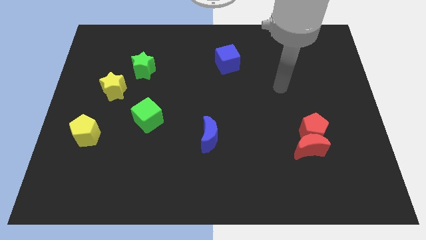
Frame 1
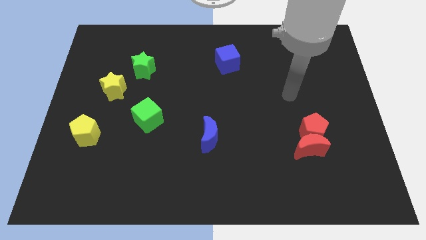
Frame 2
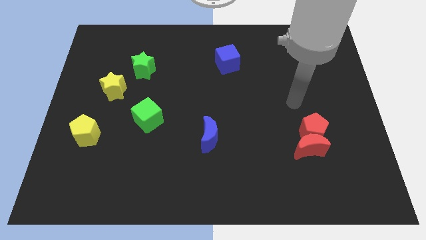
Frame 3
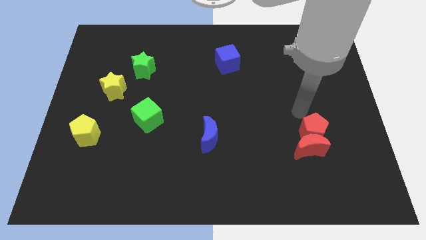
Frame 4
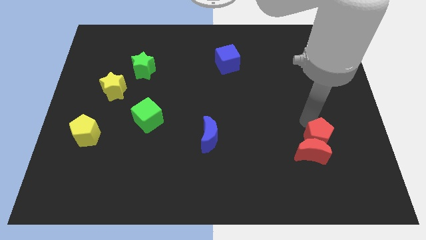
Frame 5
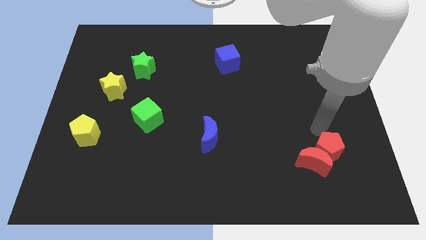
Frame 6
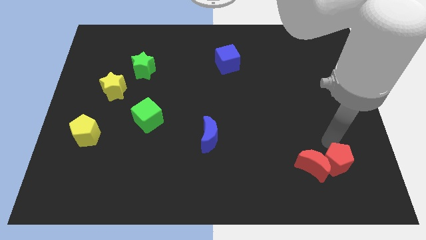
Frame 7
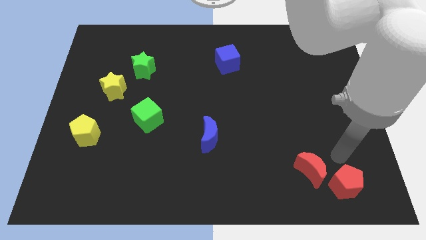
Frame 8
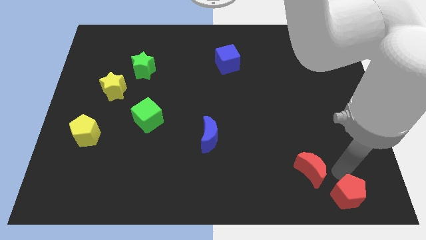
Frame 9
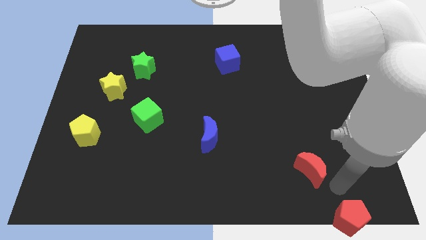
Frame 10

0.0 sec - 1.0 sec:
pull the red moon apart from the red pentagon

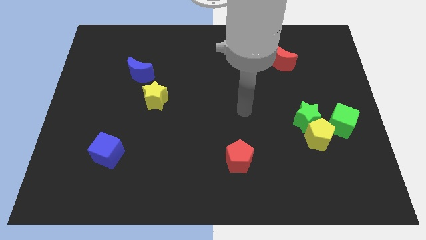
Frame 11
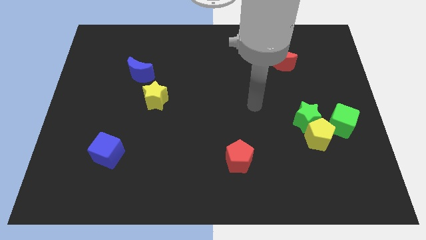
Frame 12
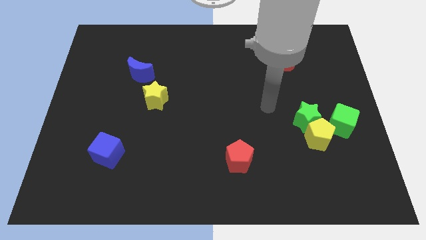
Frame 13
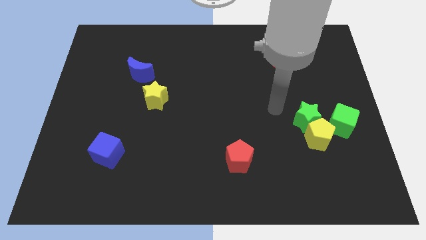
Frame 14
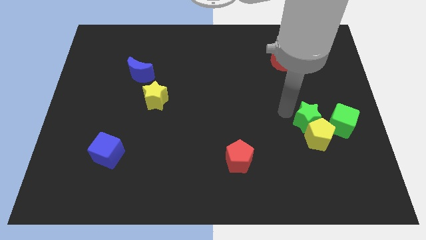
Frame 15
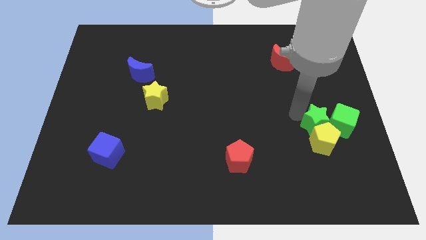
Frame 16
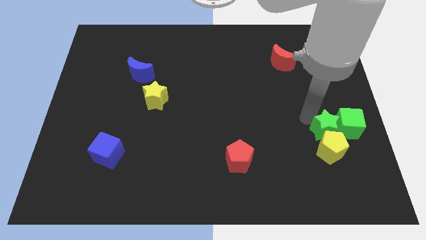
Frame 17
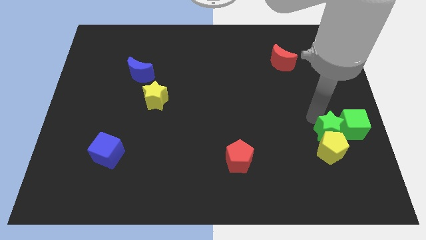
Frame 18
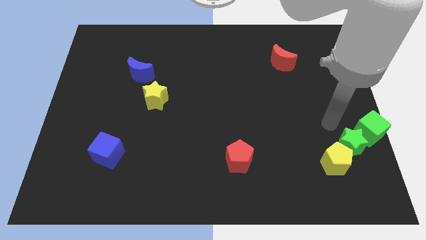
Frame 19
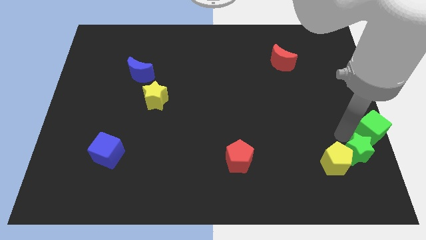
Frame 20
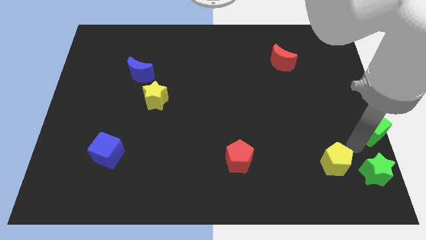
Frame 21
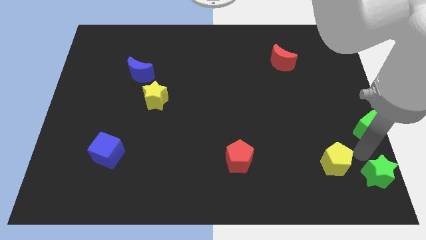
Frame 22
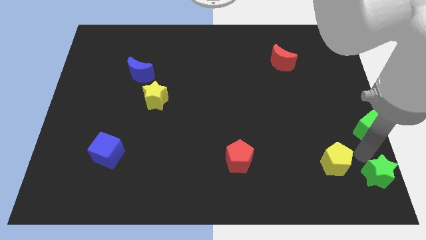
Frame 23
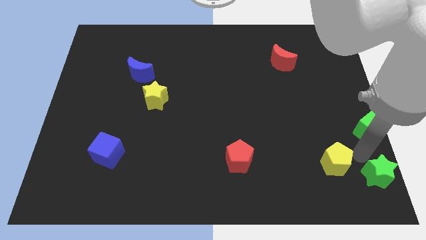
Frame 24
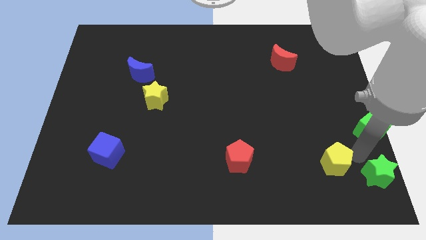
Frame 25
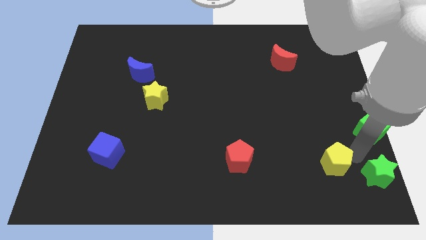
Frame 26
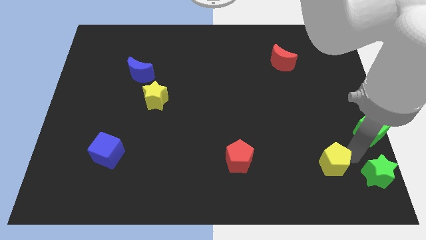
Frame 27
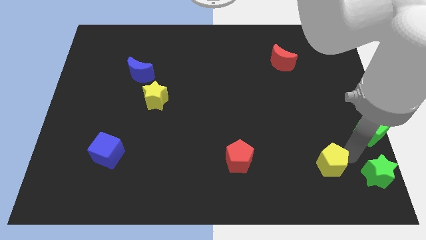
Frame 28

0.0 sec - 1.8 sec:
move the yellow pentagon away from the green star and green cube

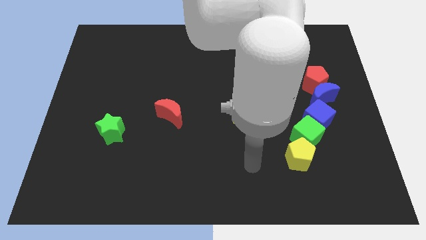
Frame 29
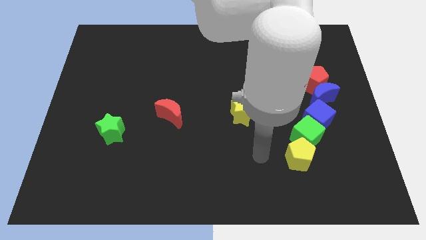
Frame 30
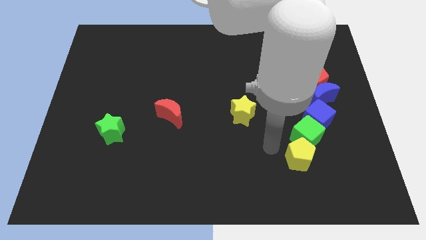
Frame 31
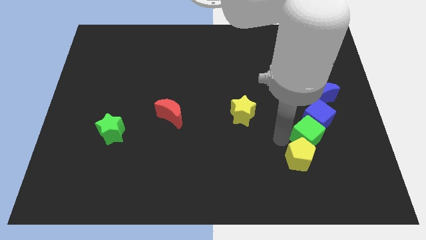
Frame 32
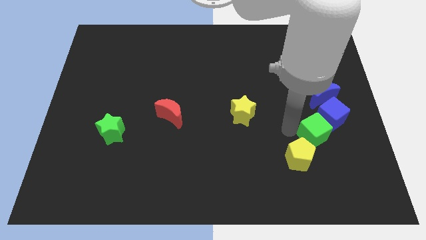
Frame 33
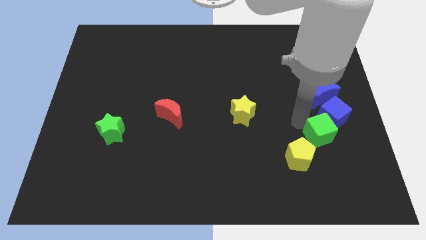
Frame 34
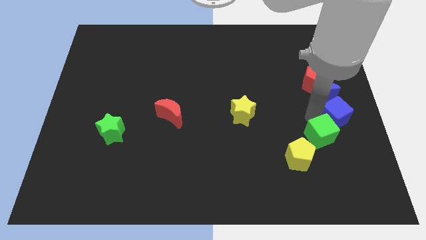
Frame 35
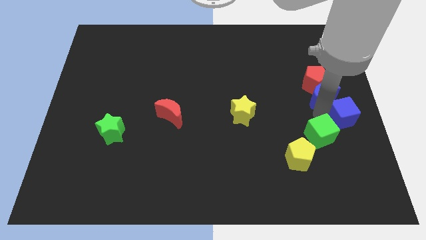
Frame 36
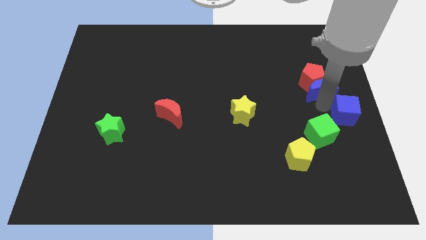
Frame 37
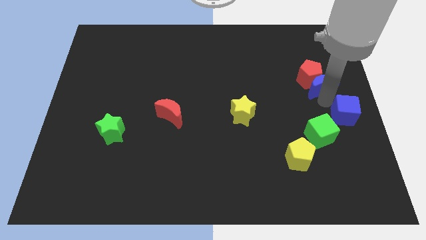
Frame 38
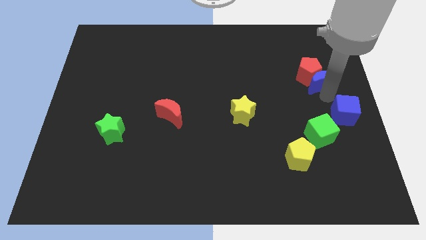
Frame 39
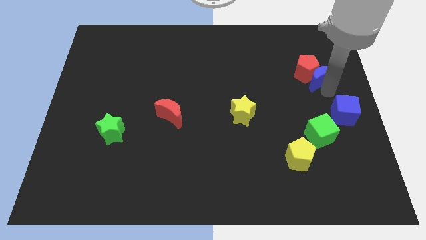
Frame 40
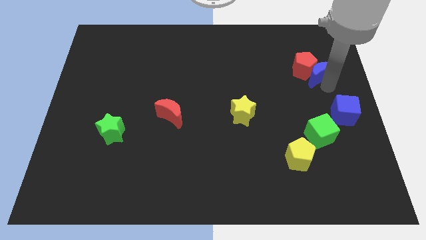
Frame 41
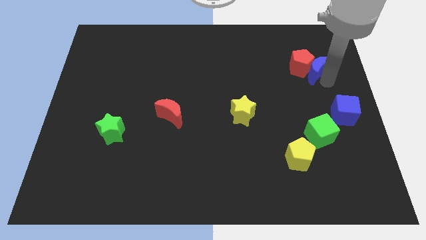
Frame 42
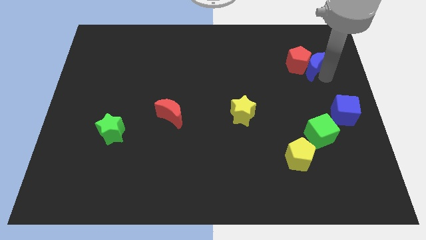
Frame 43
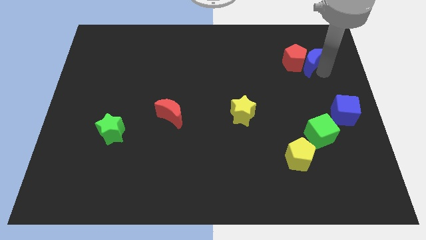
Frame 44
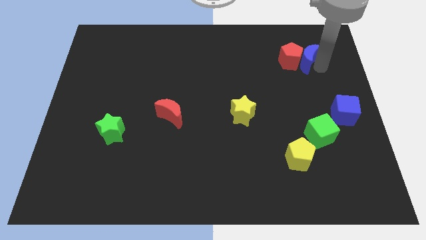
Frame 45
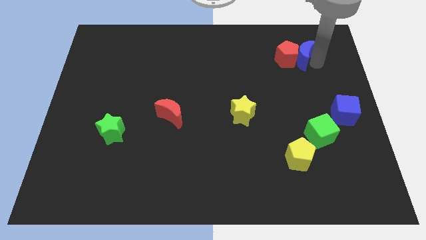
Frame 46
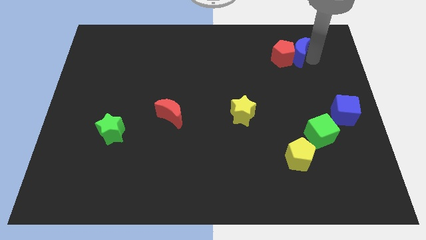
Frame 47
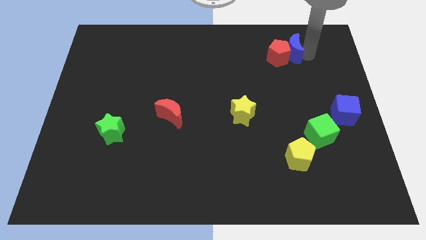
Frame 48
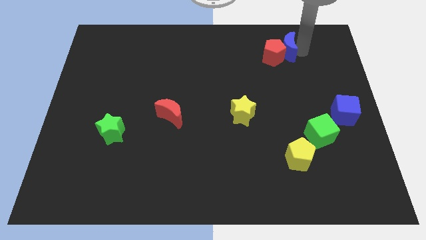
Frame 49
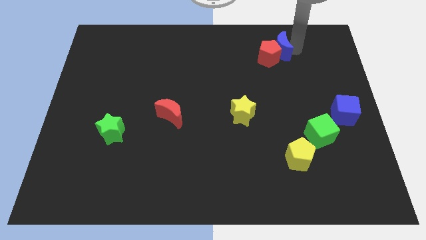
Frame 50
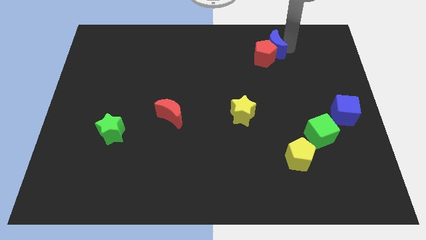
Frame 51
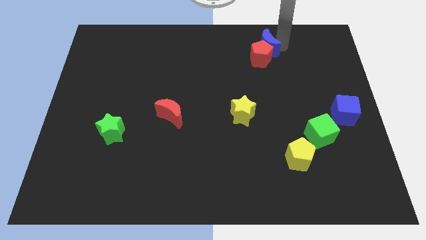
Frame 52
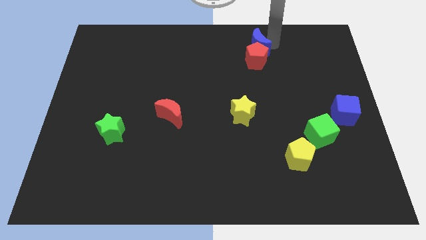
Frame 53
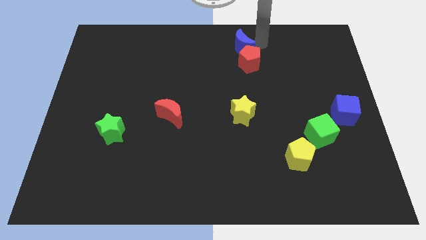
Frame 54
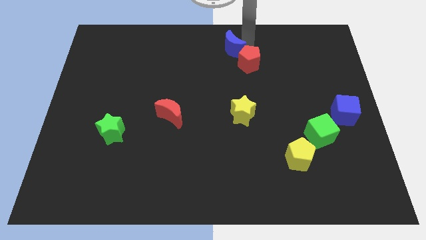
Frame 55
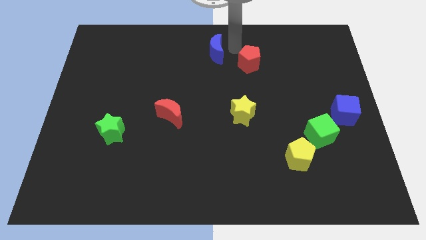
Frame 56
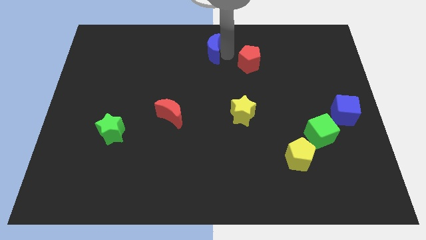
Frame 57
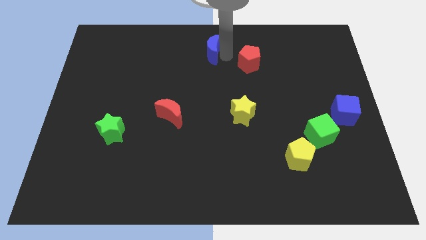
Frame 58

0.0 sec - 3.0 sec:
move the red pentagon away from the blue moon

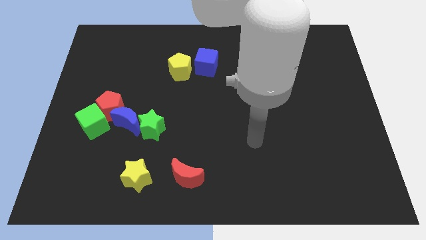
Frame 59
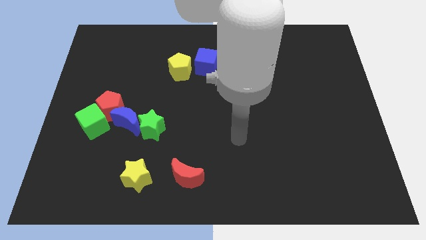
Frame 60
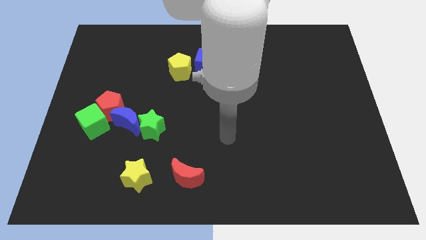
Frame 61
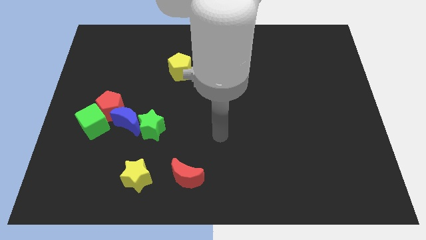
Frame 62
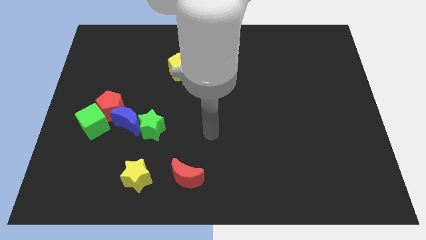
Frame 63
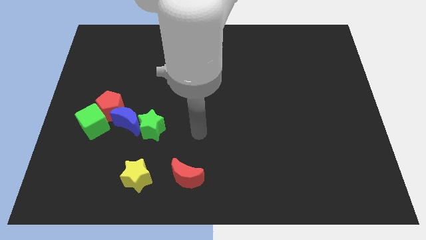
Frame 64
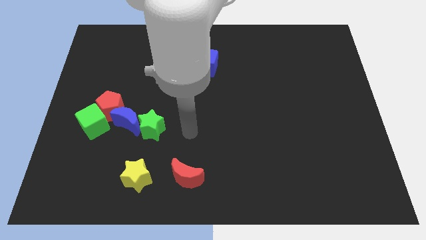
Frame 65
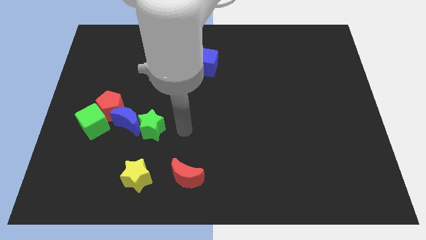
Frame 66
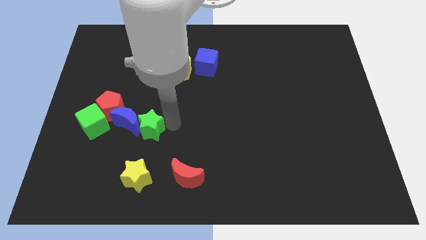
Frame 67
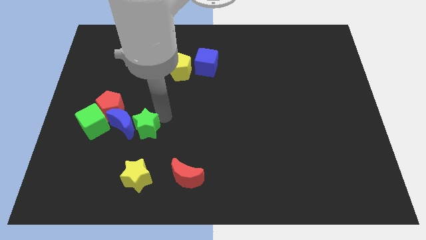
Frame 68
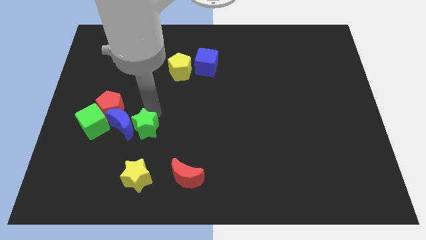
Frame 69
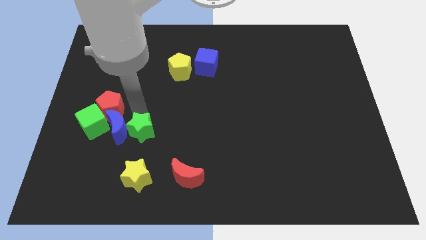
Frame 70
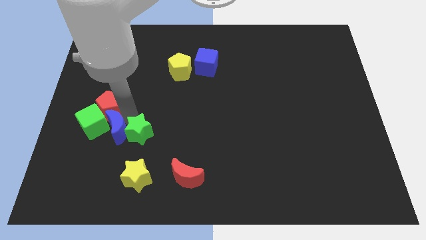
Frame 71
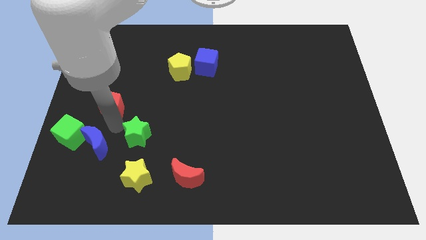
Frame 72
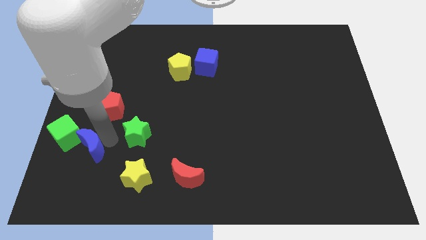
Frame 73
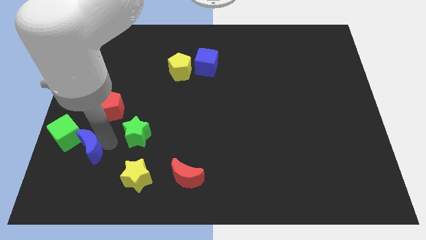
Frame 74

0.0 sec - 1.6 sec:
pull the green star apart from the blue moon

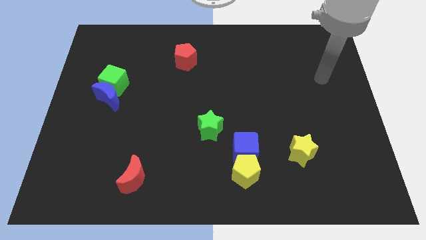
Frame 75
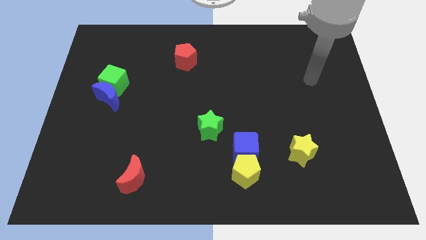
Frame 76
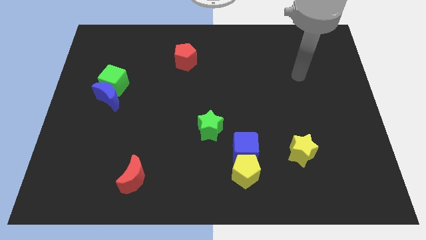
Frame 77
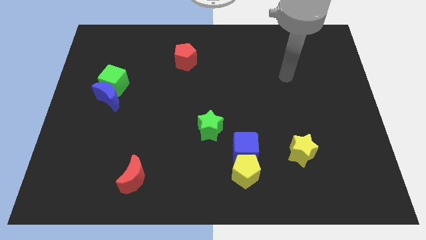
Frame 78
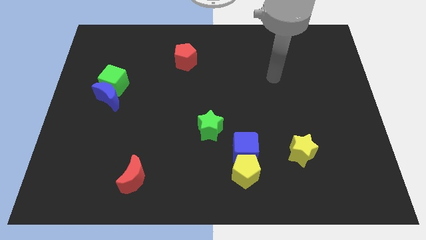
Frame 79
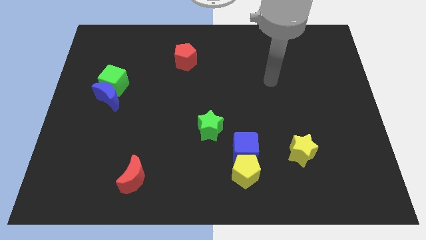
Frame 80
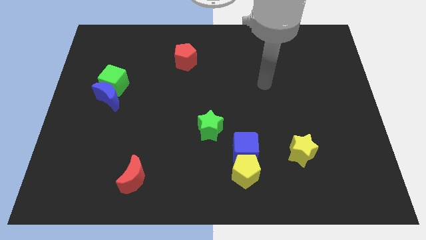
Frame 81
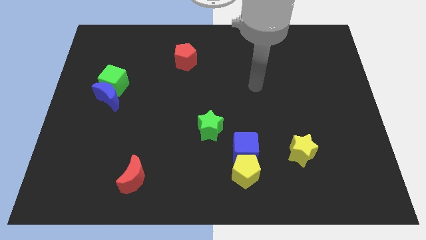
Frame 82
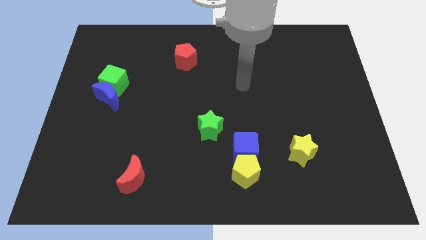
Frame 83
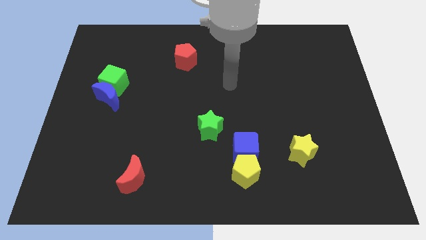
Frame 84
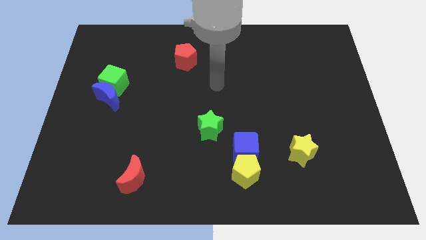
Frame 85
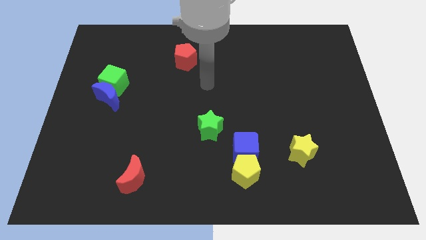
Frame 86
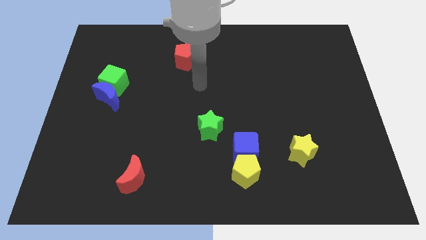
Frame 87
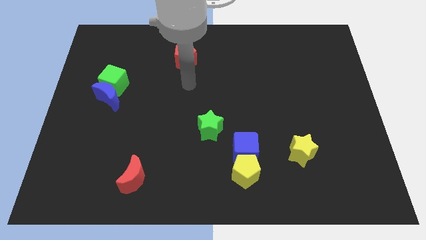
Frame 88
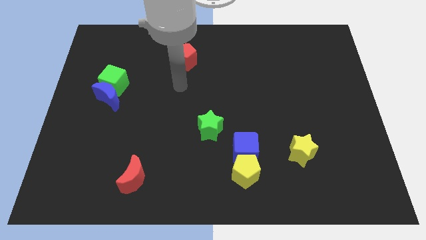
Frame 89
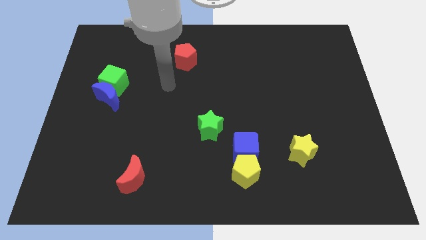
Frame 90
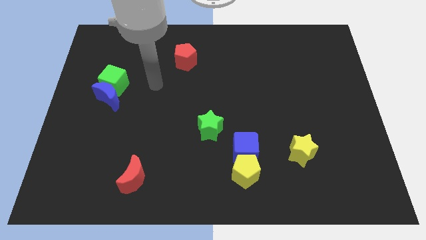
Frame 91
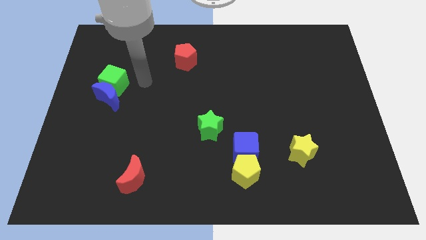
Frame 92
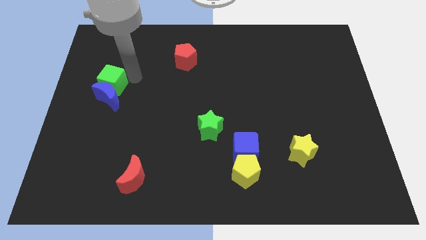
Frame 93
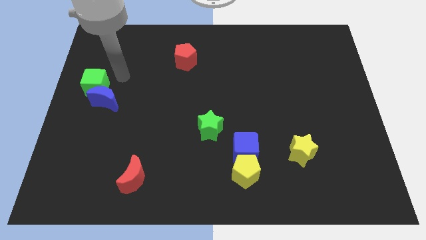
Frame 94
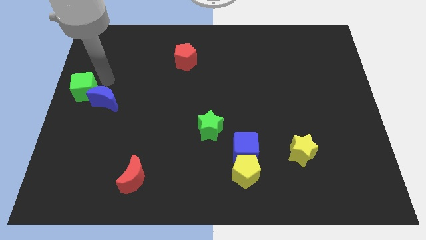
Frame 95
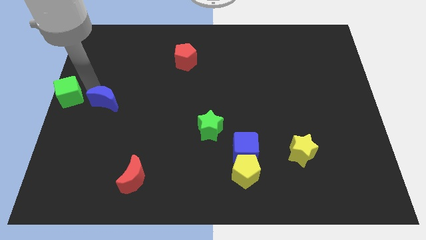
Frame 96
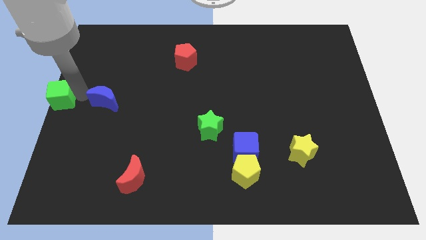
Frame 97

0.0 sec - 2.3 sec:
separate the blue moon from the green cube
